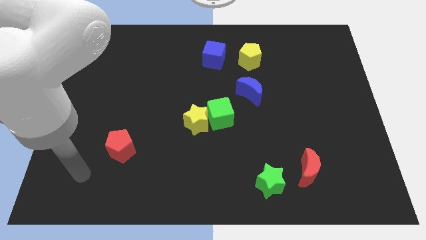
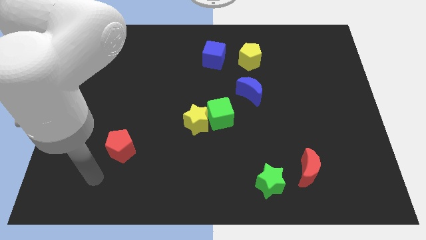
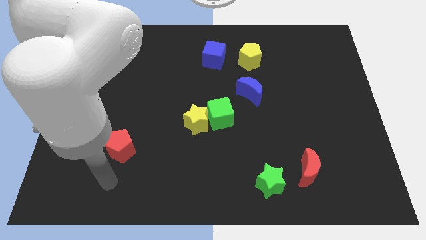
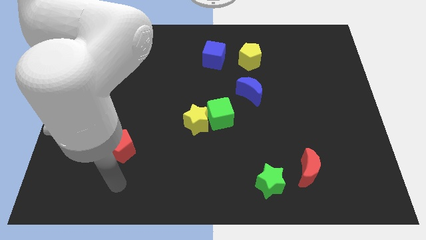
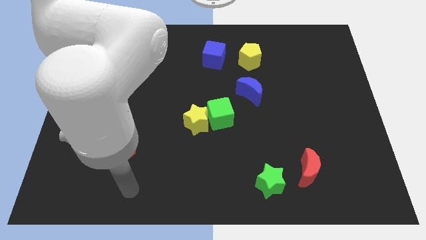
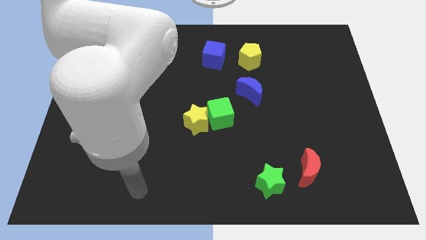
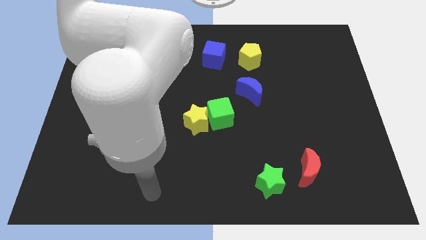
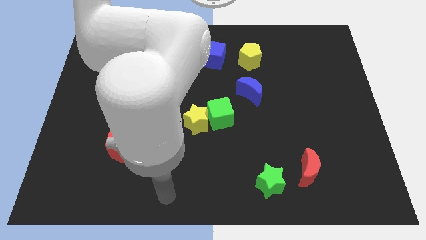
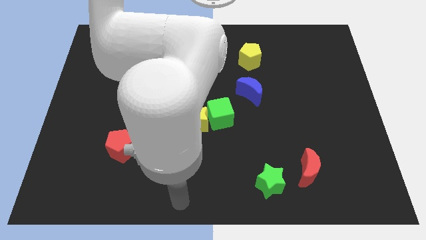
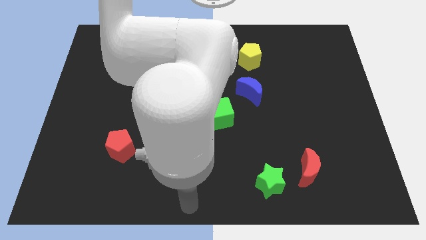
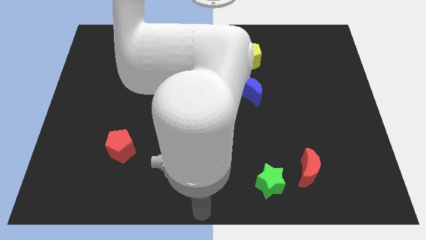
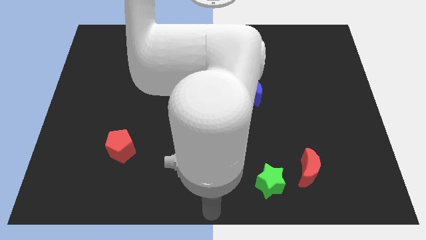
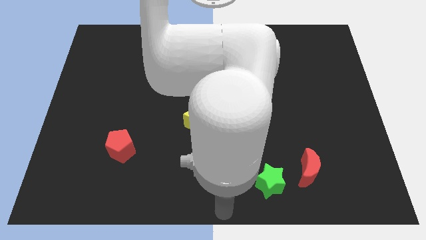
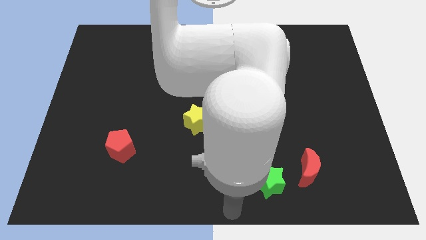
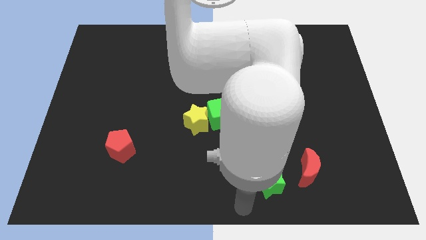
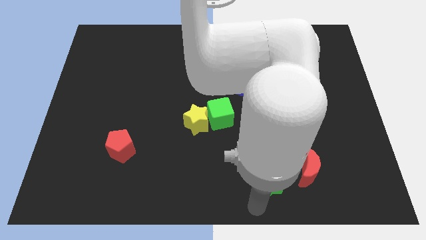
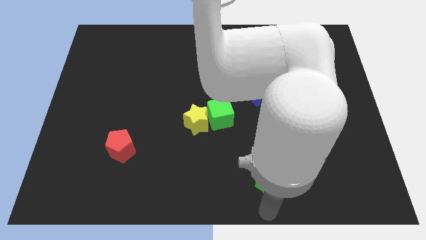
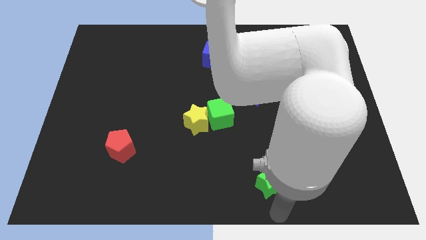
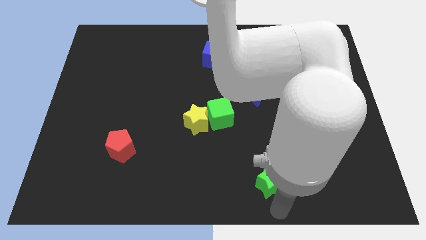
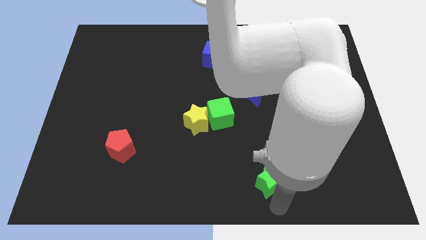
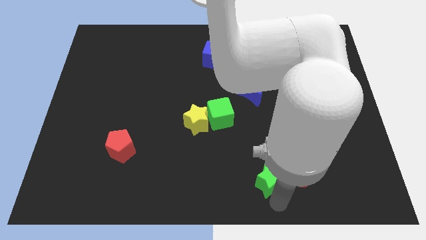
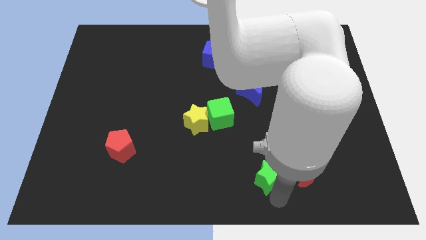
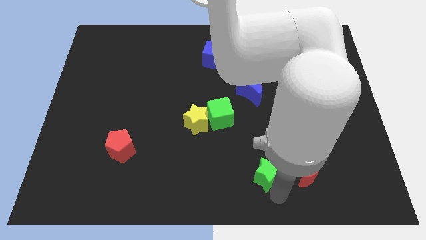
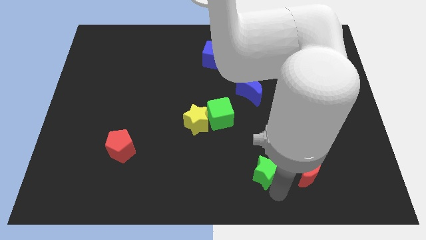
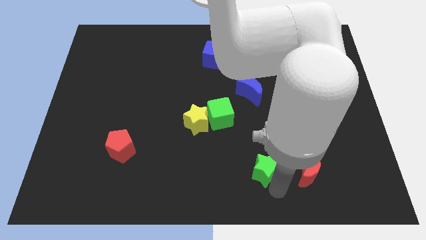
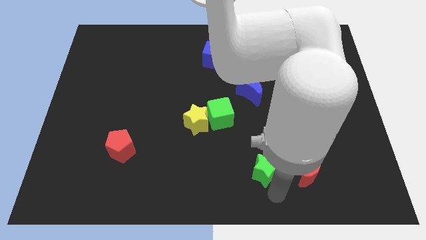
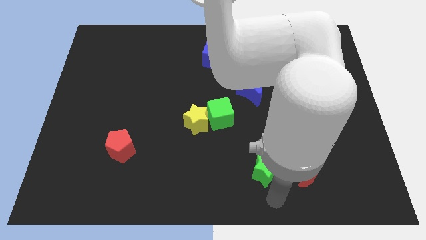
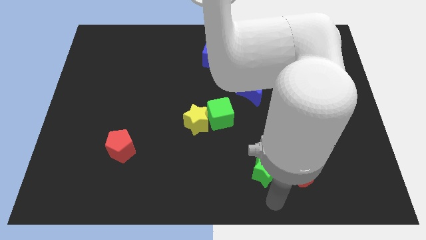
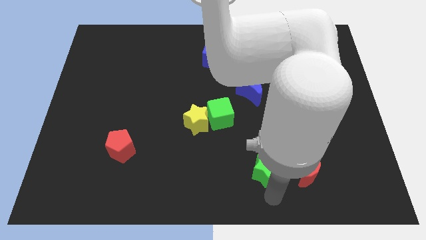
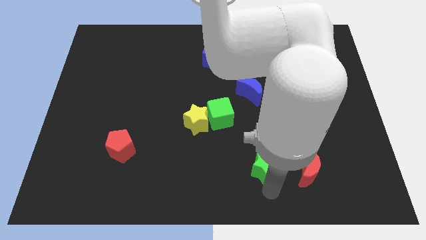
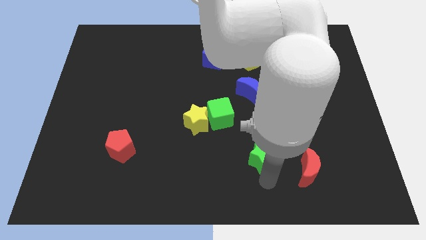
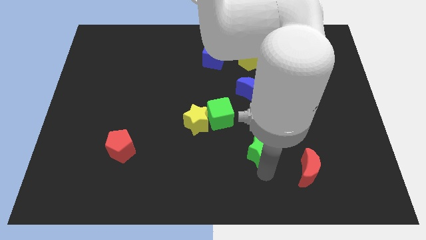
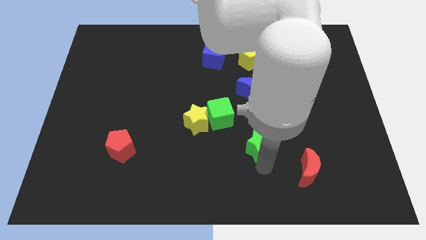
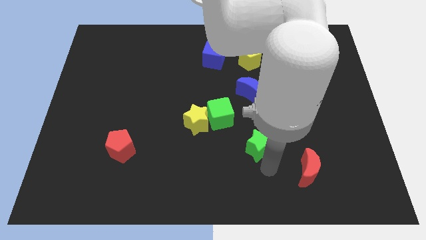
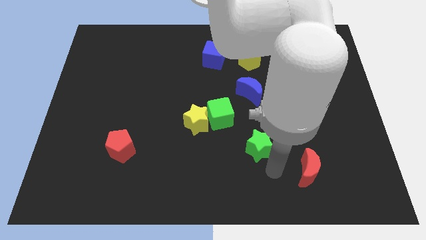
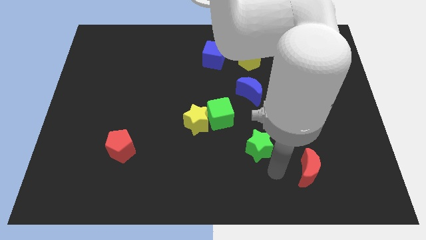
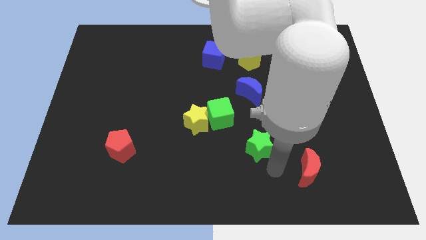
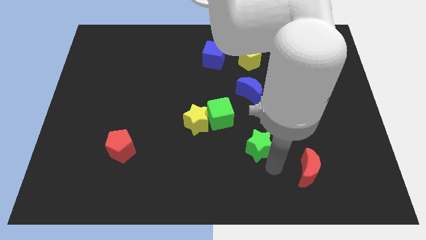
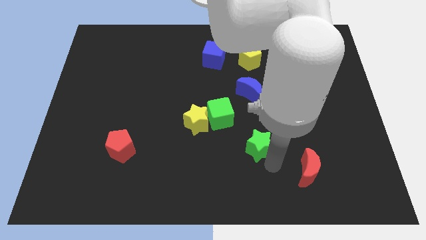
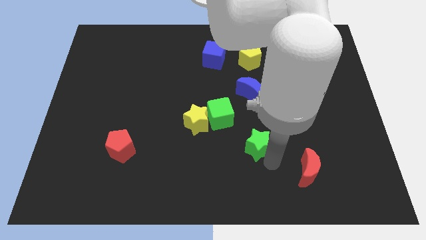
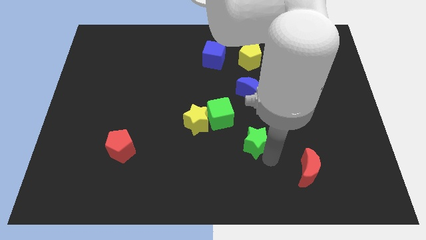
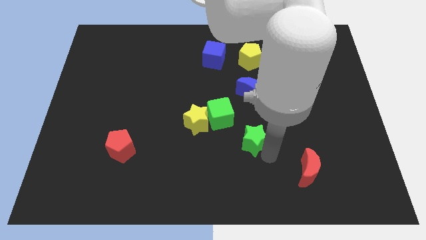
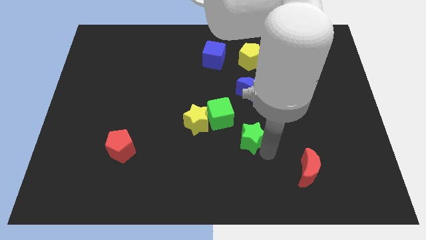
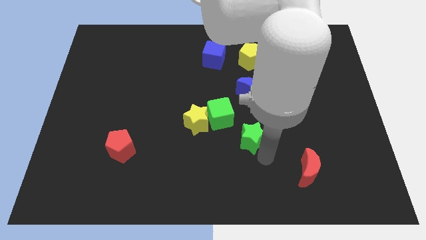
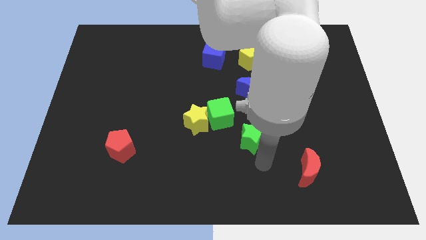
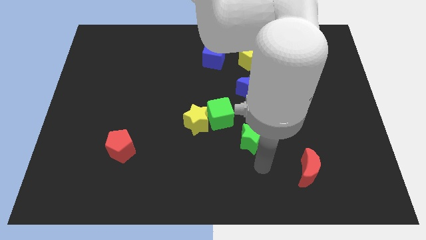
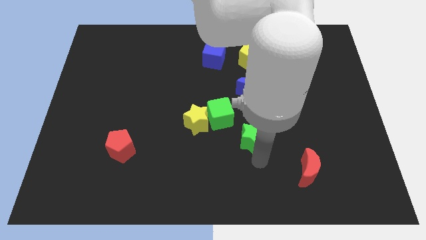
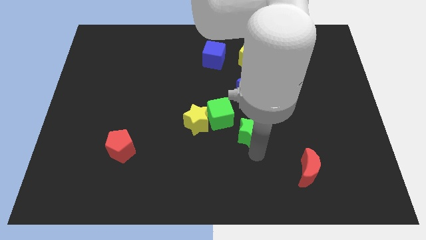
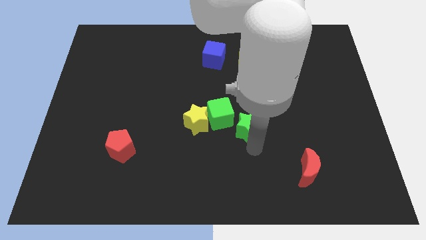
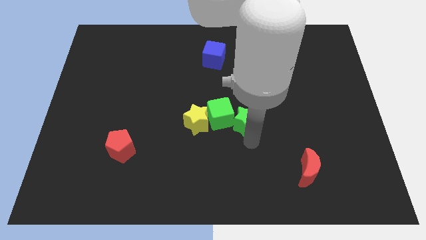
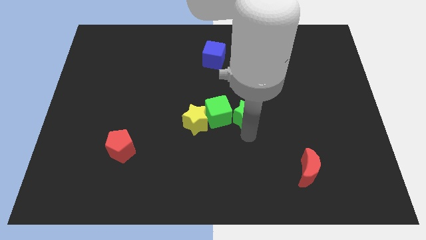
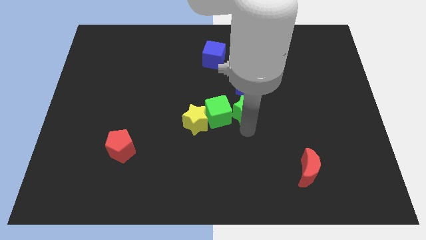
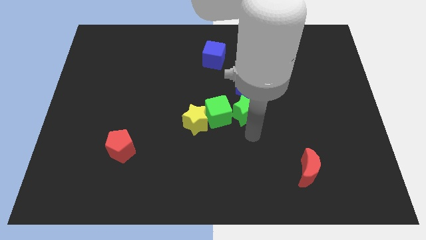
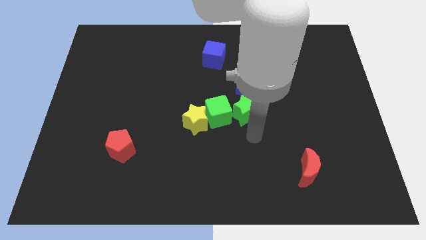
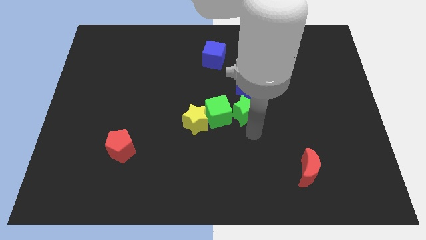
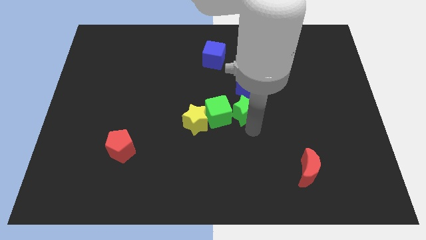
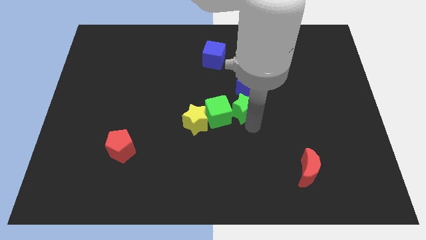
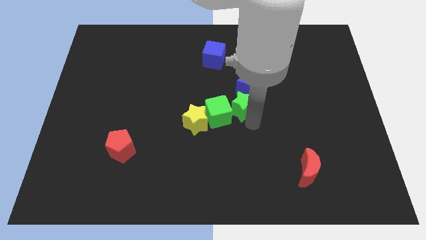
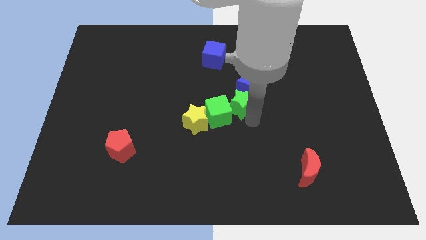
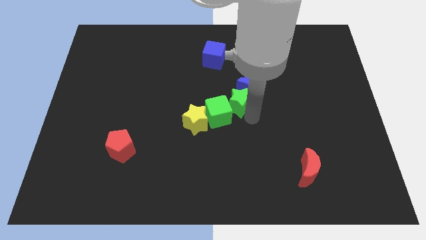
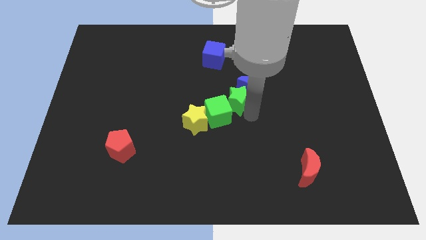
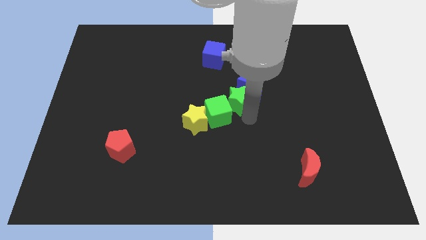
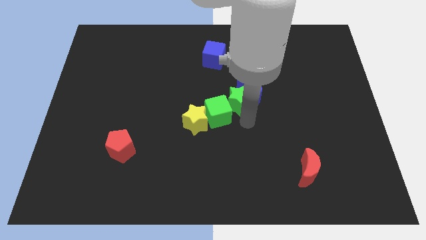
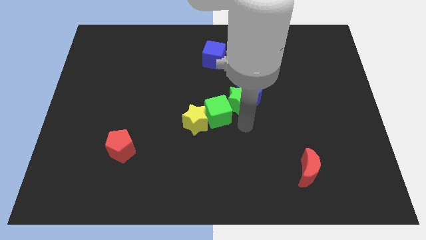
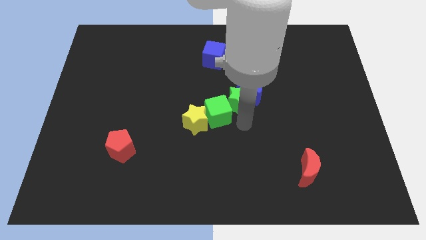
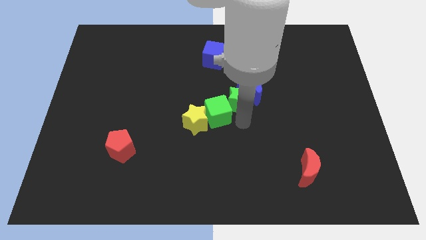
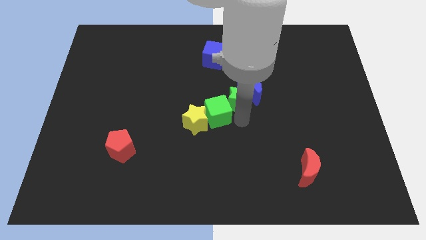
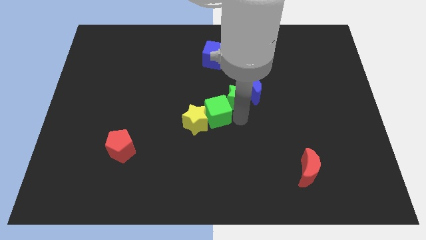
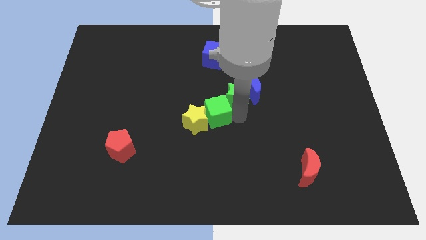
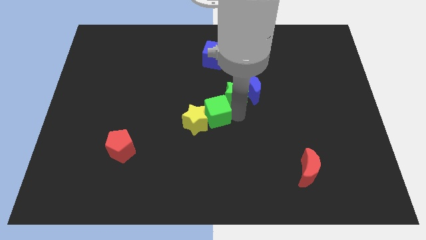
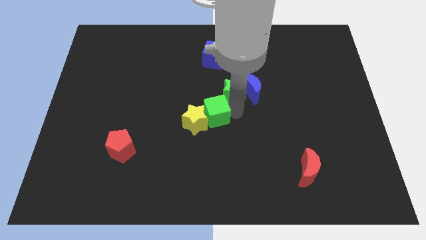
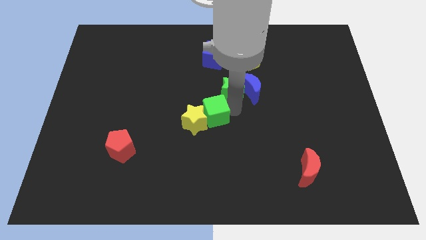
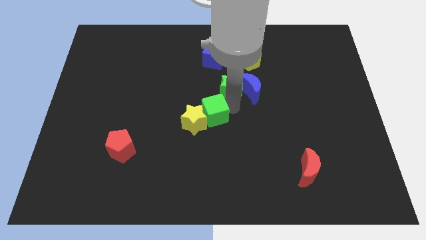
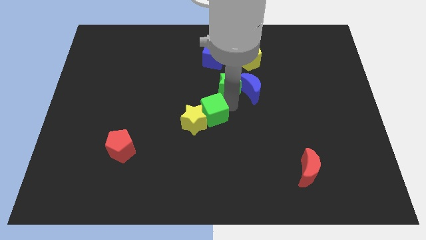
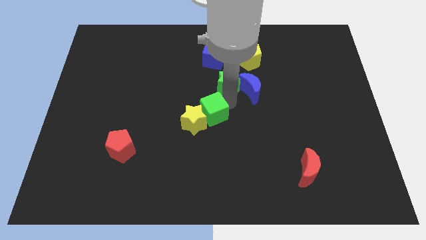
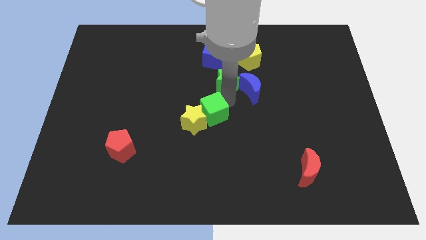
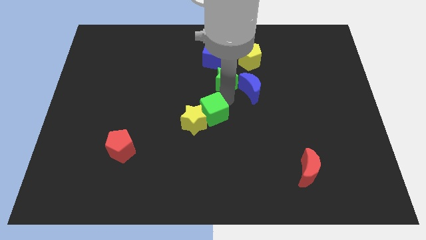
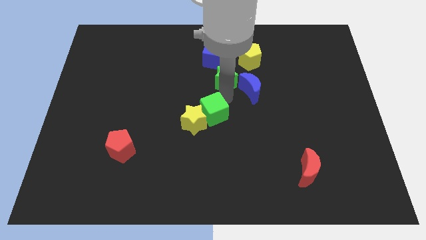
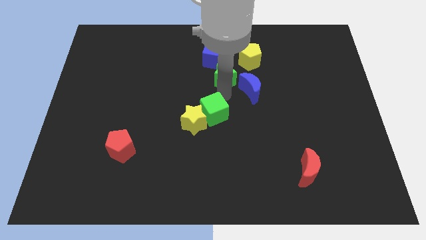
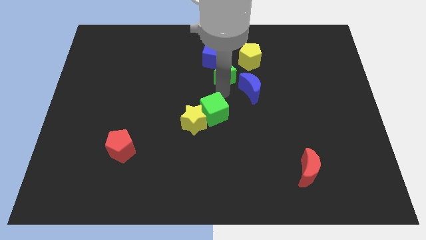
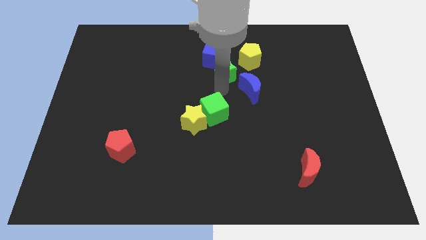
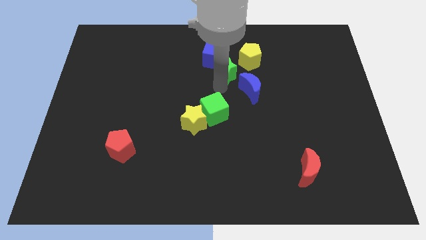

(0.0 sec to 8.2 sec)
move the green star towards the blue cube
